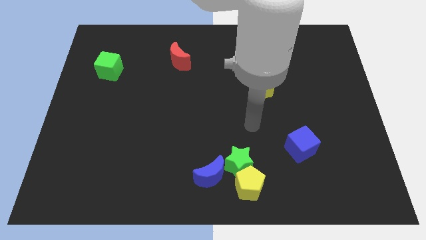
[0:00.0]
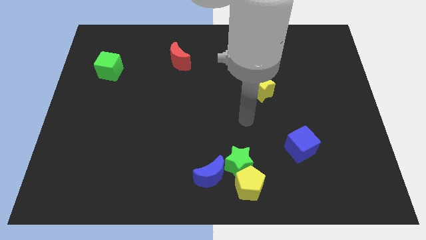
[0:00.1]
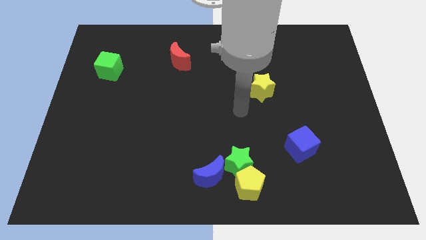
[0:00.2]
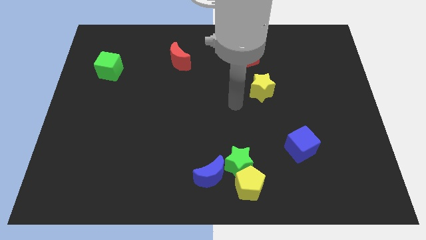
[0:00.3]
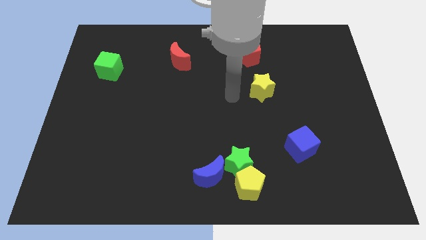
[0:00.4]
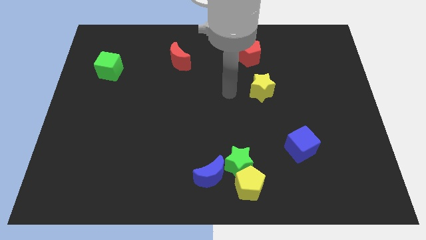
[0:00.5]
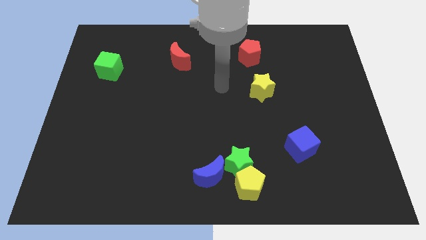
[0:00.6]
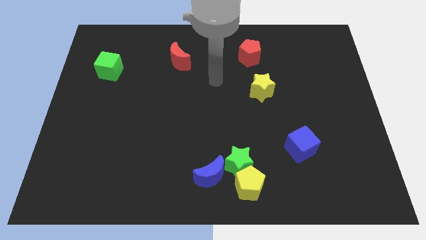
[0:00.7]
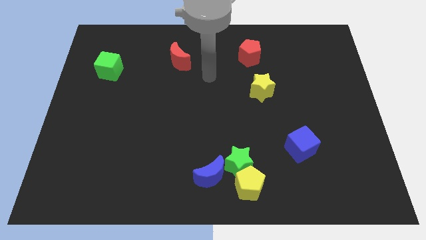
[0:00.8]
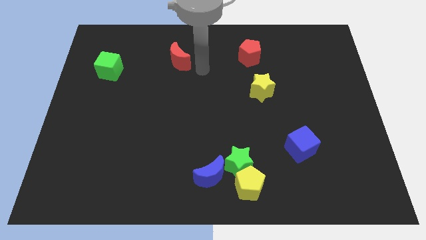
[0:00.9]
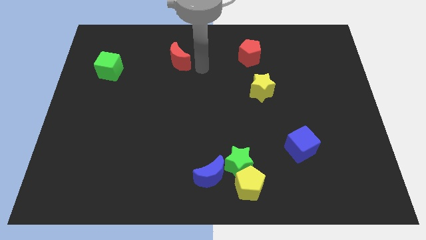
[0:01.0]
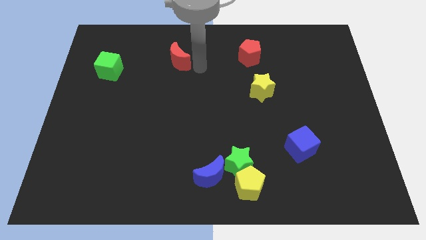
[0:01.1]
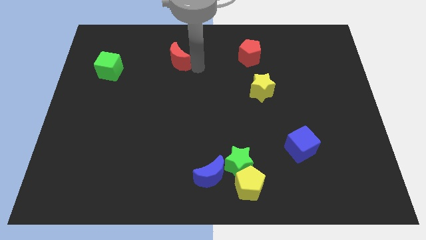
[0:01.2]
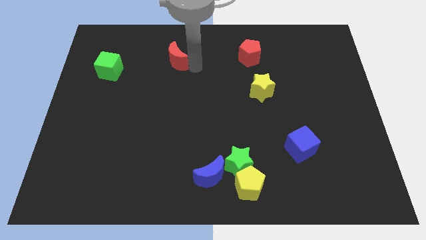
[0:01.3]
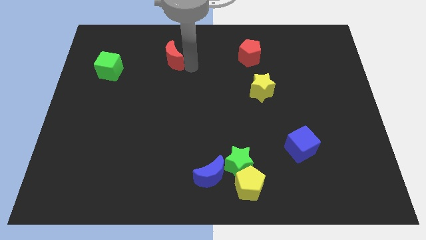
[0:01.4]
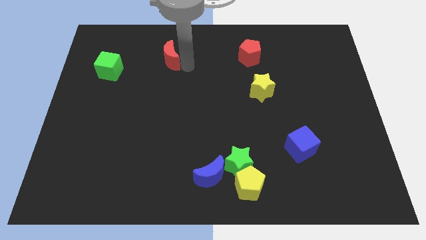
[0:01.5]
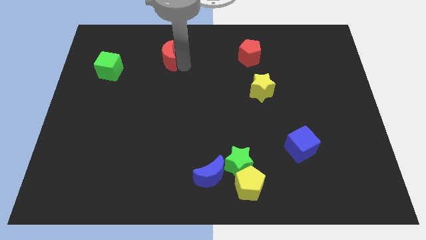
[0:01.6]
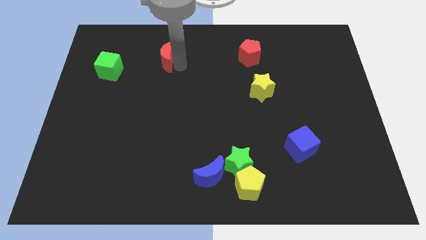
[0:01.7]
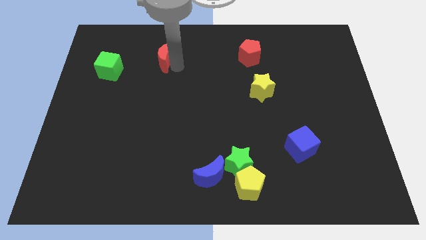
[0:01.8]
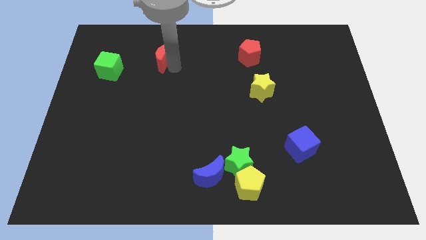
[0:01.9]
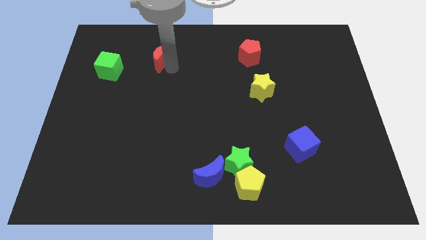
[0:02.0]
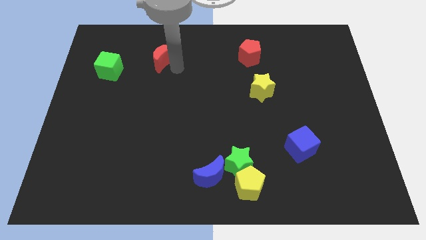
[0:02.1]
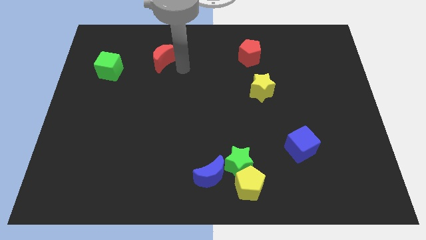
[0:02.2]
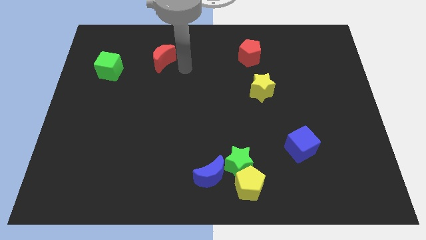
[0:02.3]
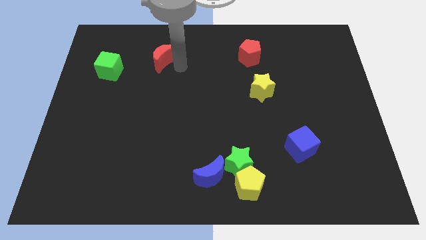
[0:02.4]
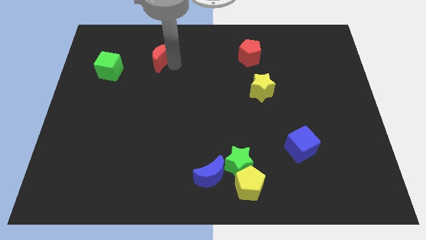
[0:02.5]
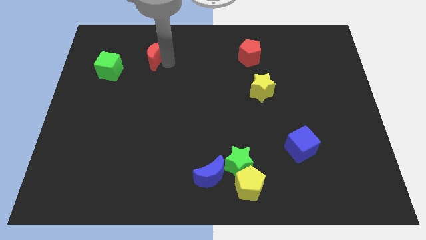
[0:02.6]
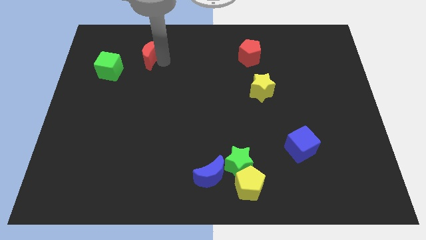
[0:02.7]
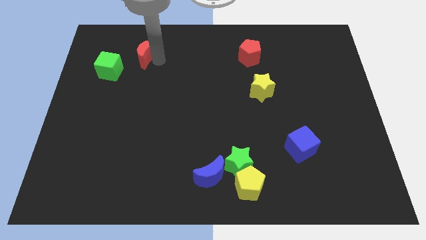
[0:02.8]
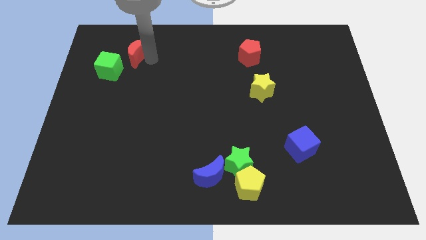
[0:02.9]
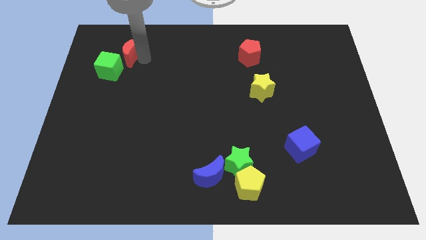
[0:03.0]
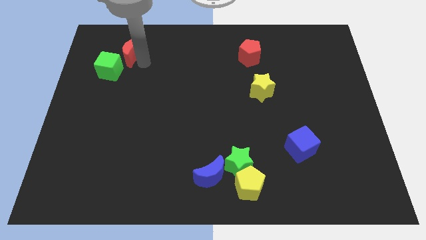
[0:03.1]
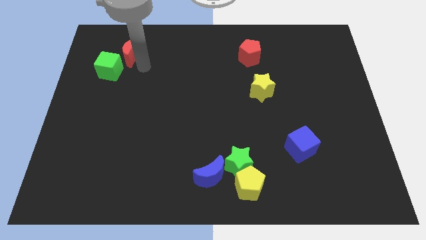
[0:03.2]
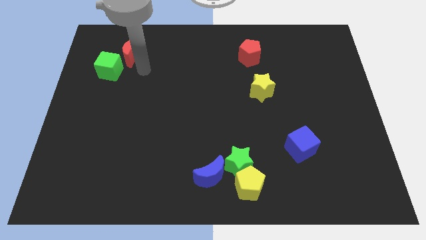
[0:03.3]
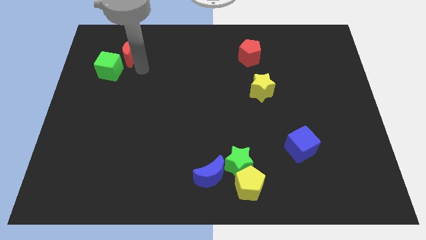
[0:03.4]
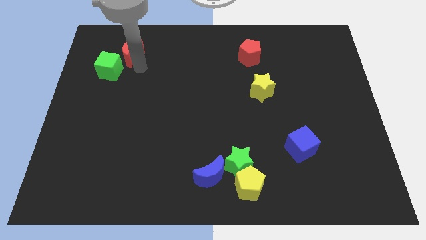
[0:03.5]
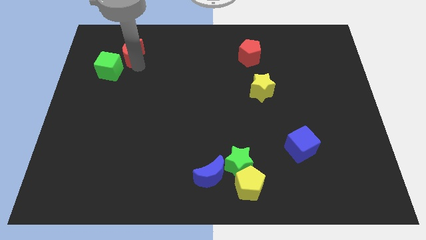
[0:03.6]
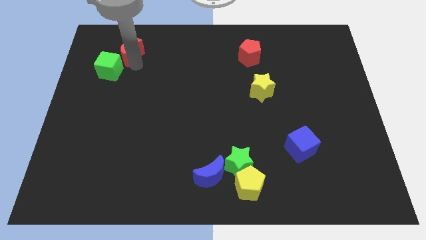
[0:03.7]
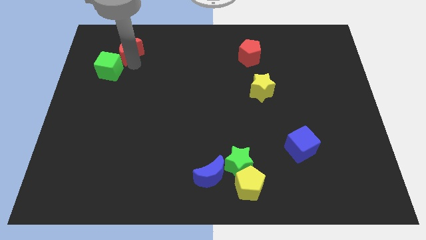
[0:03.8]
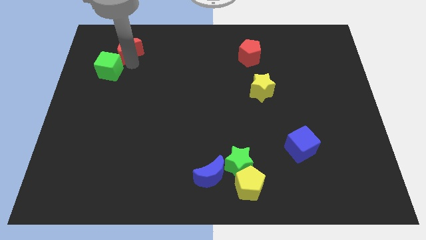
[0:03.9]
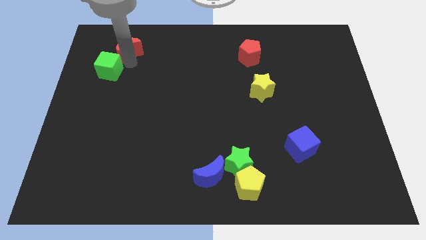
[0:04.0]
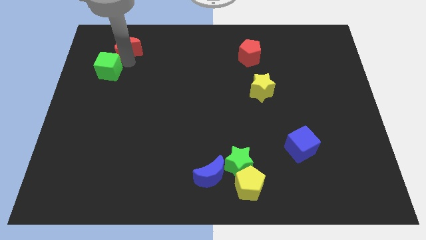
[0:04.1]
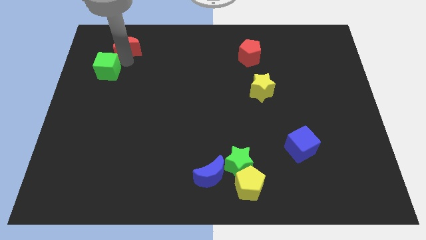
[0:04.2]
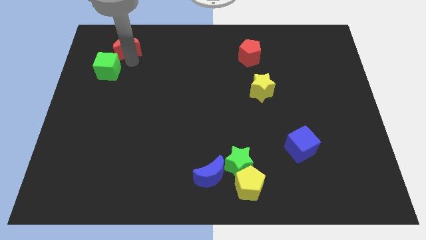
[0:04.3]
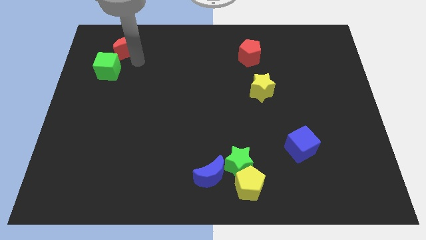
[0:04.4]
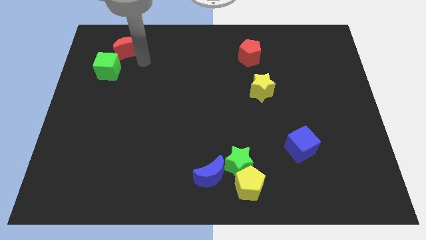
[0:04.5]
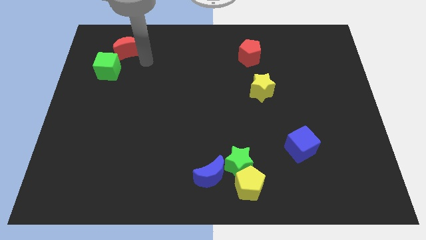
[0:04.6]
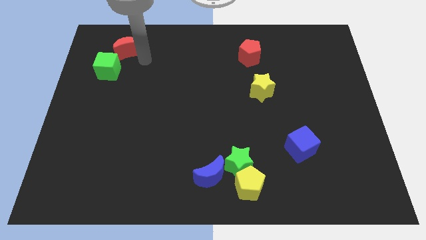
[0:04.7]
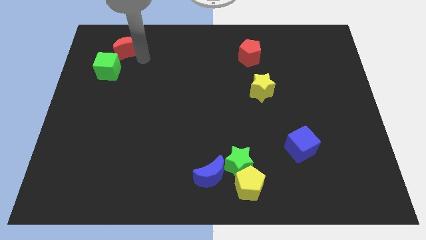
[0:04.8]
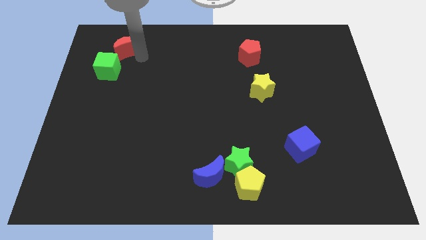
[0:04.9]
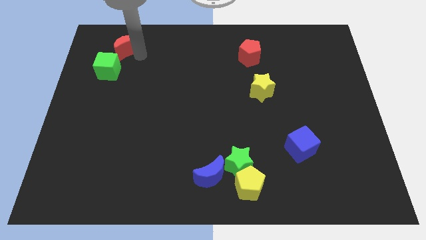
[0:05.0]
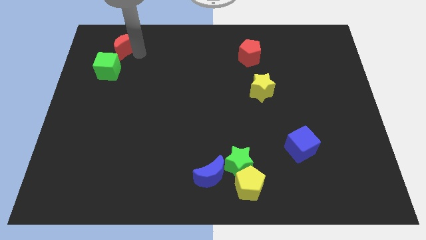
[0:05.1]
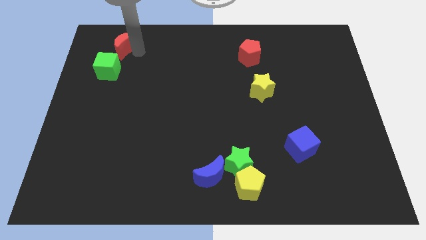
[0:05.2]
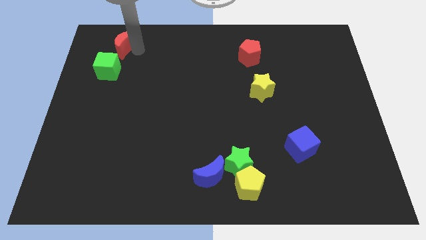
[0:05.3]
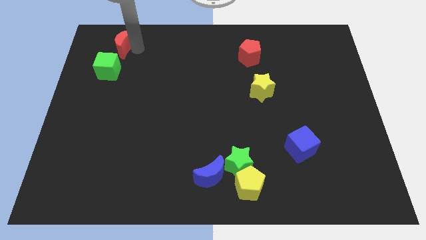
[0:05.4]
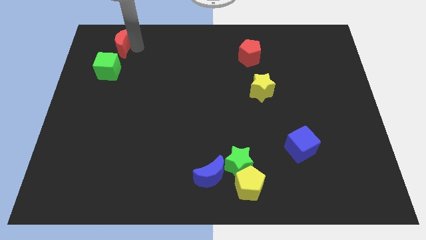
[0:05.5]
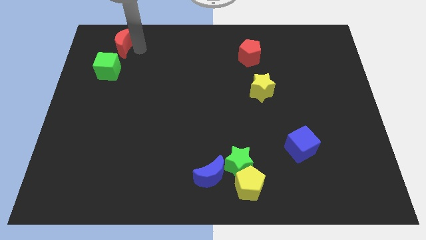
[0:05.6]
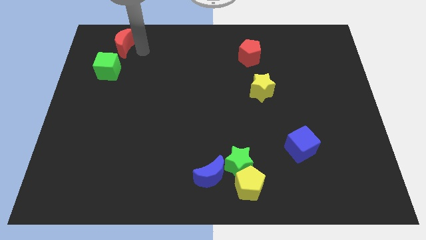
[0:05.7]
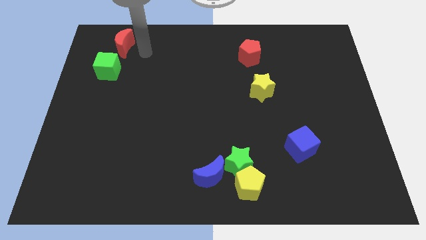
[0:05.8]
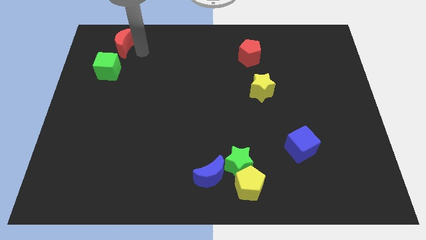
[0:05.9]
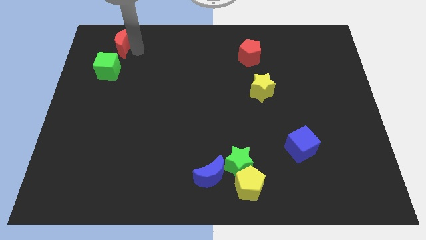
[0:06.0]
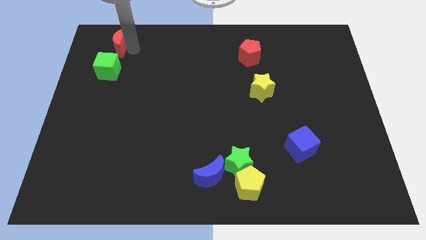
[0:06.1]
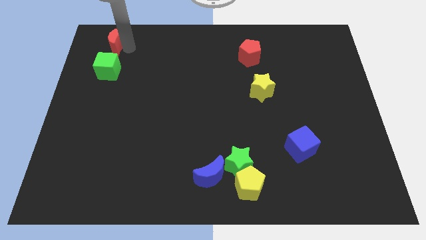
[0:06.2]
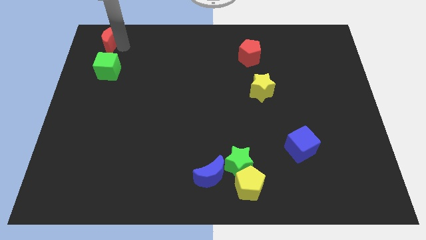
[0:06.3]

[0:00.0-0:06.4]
slide the red moon to the upper left corner

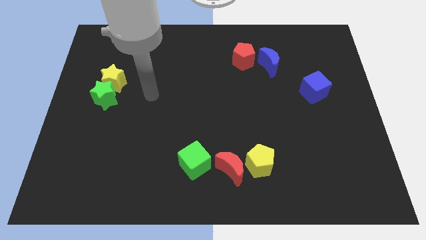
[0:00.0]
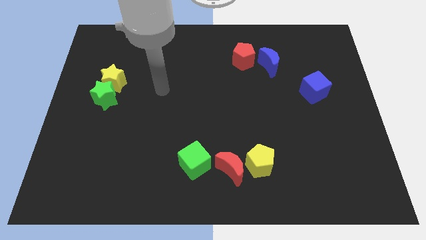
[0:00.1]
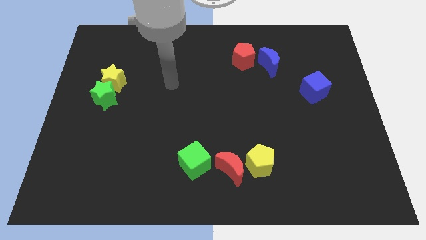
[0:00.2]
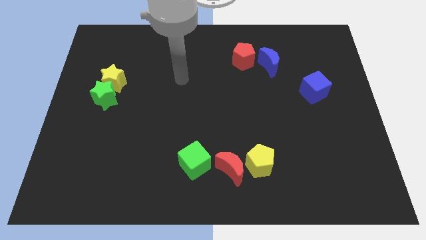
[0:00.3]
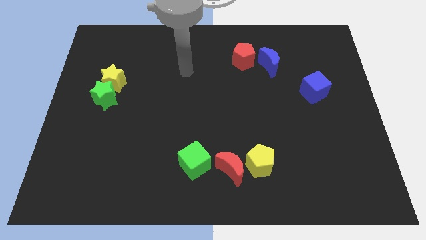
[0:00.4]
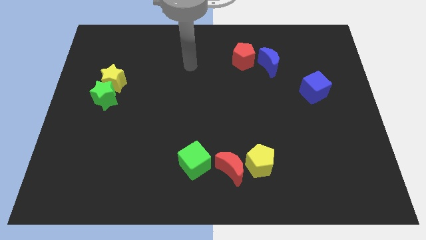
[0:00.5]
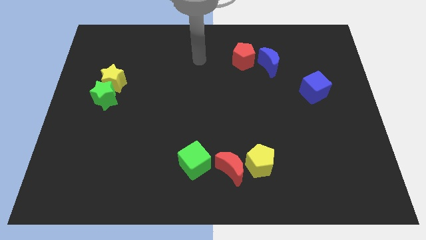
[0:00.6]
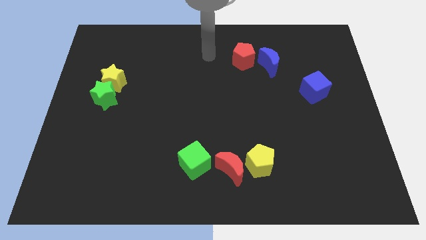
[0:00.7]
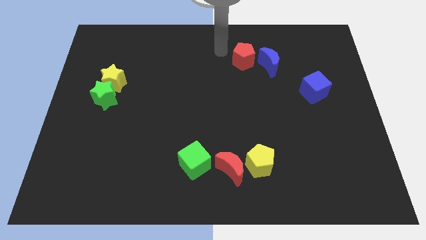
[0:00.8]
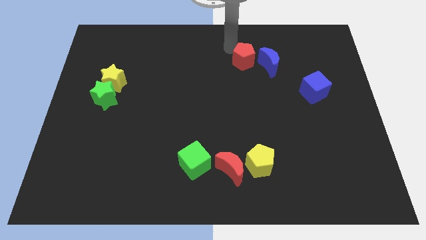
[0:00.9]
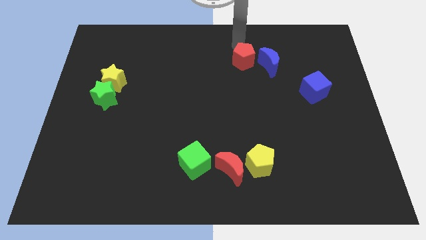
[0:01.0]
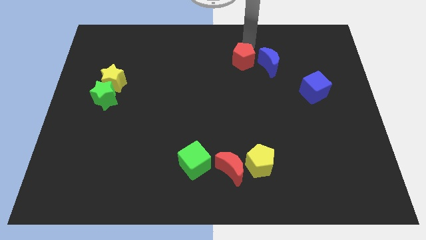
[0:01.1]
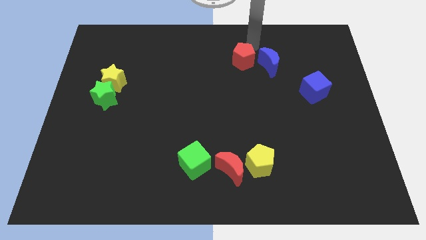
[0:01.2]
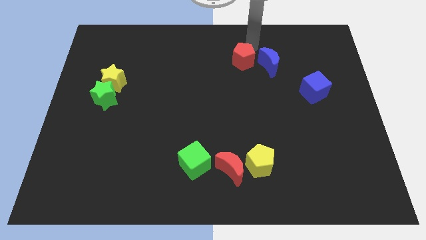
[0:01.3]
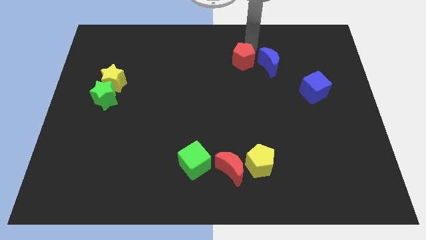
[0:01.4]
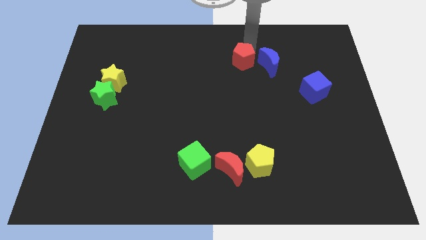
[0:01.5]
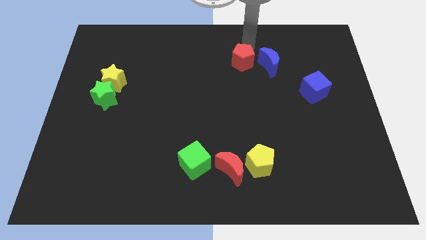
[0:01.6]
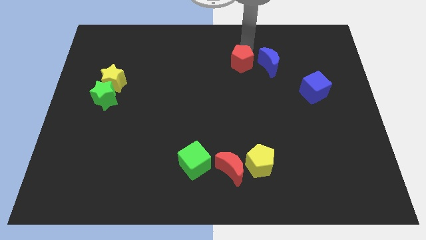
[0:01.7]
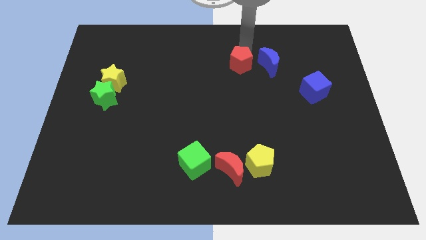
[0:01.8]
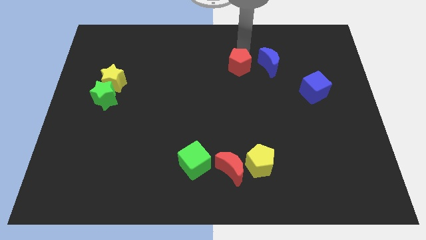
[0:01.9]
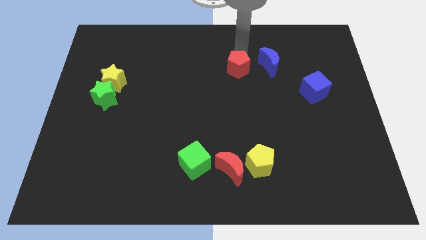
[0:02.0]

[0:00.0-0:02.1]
put the red pentagon to the center
